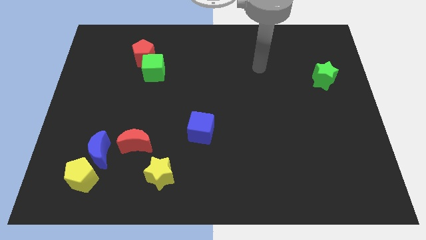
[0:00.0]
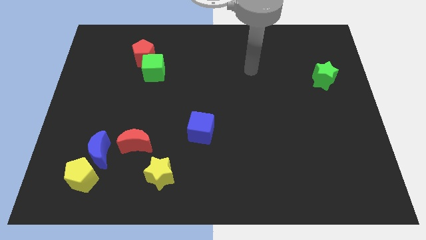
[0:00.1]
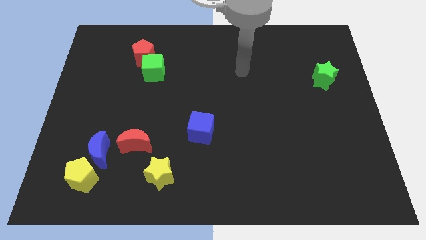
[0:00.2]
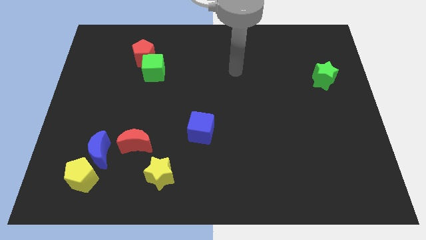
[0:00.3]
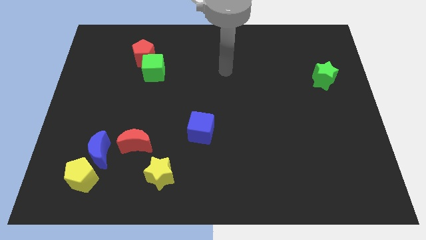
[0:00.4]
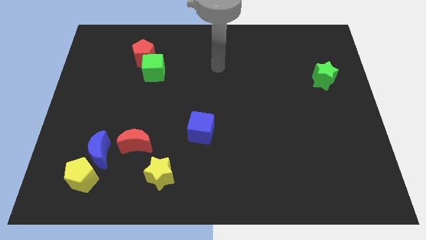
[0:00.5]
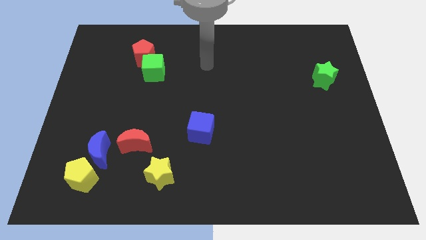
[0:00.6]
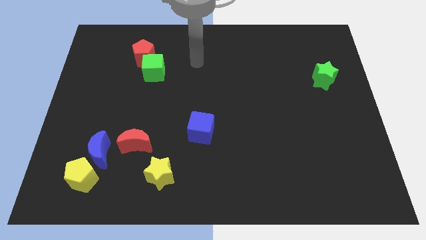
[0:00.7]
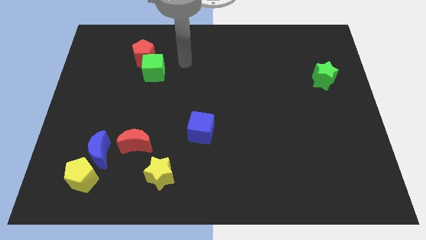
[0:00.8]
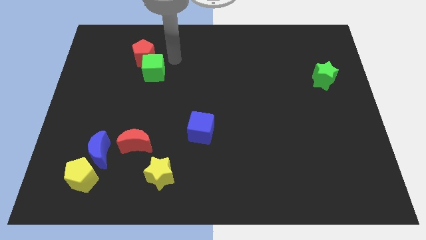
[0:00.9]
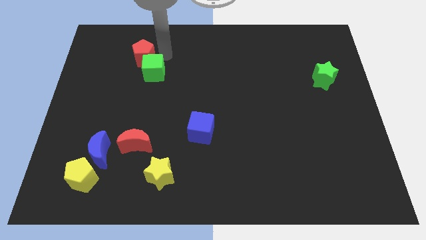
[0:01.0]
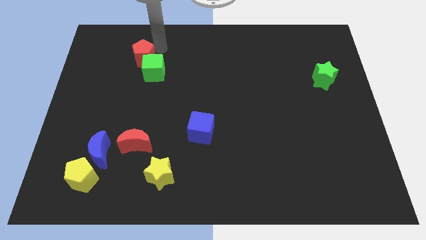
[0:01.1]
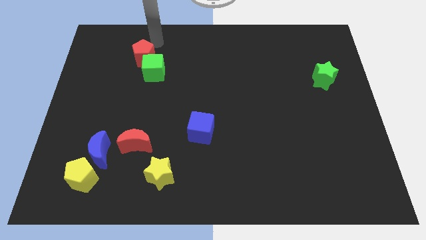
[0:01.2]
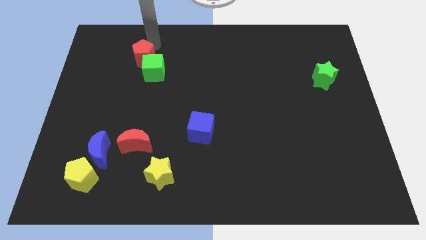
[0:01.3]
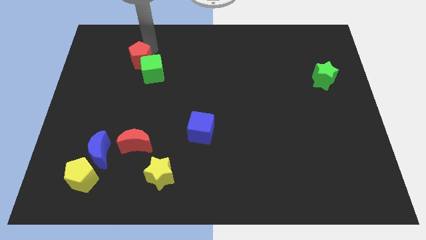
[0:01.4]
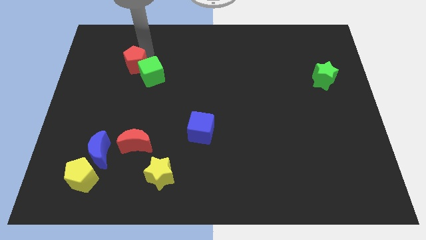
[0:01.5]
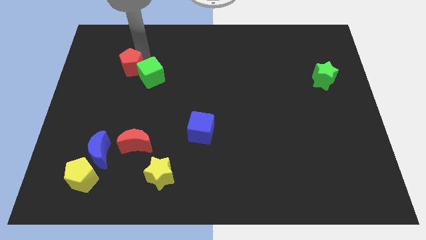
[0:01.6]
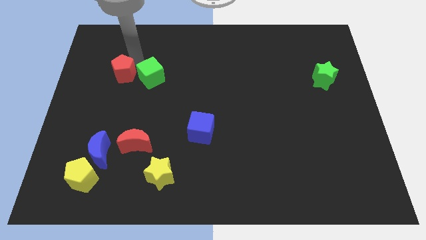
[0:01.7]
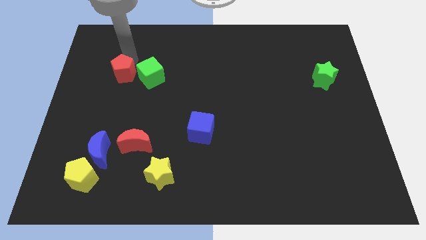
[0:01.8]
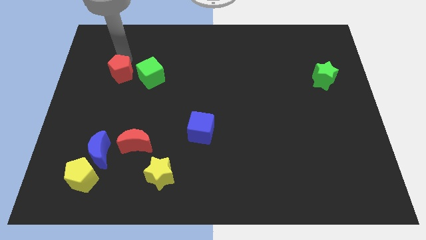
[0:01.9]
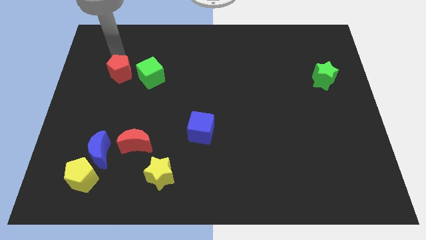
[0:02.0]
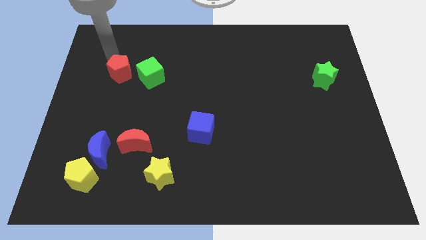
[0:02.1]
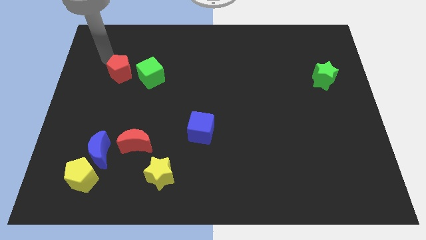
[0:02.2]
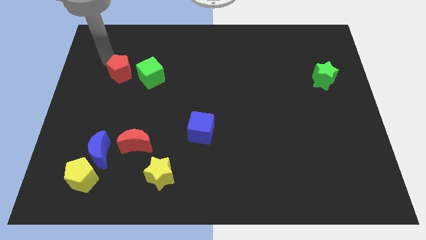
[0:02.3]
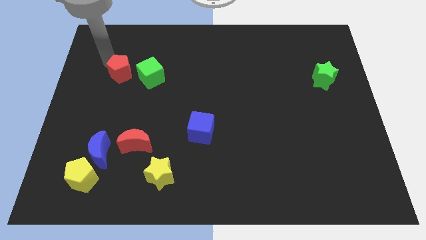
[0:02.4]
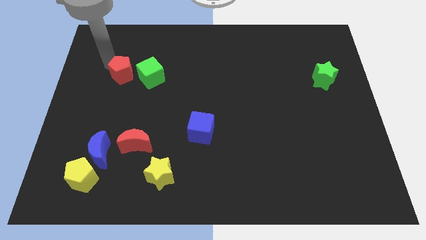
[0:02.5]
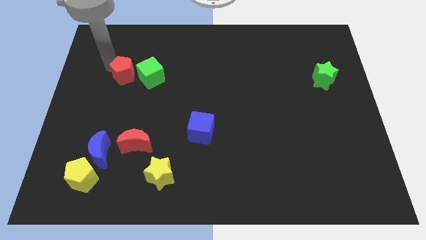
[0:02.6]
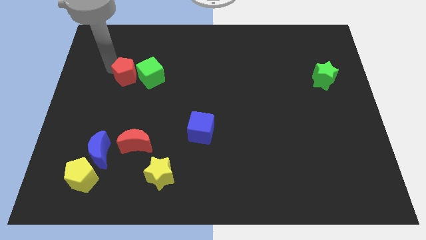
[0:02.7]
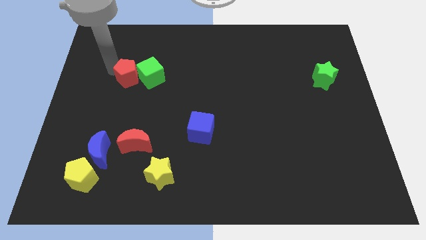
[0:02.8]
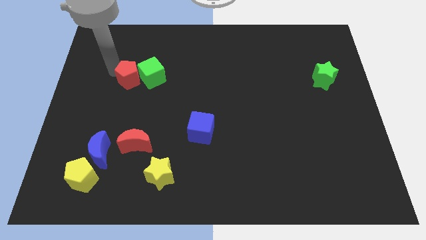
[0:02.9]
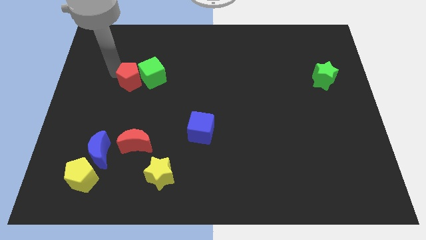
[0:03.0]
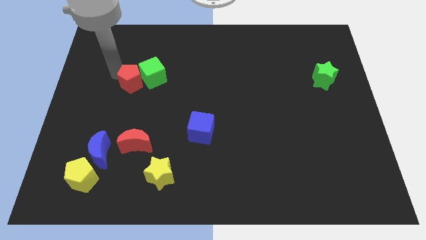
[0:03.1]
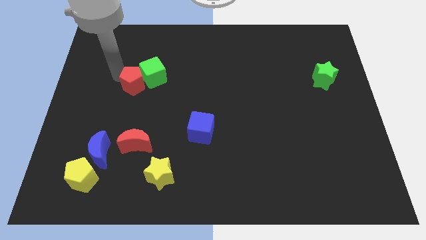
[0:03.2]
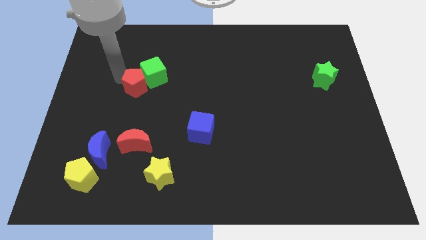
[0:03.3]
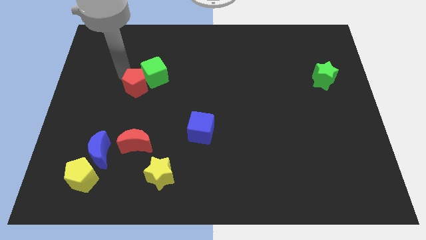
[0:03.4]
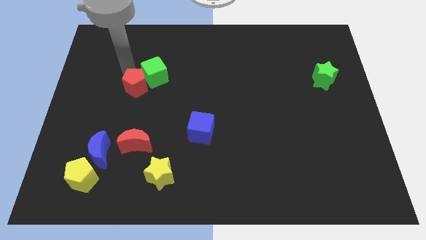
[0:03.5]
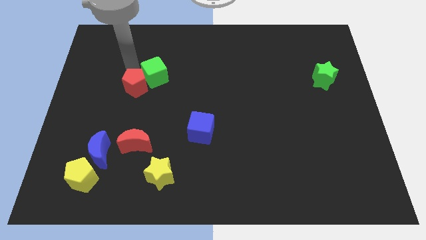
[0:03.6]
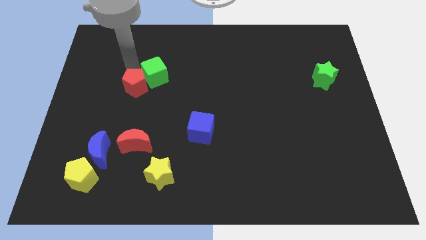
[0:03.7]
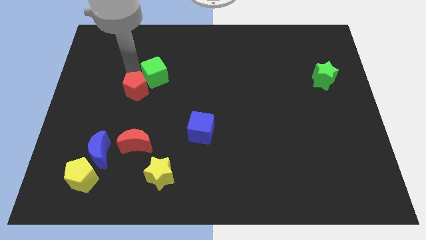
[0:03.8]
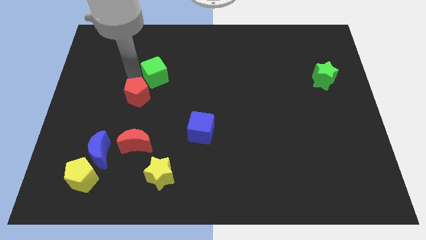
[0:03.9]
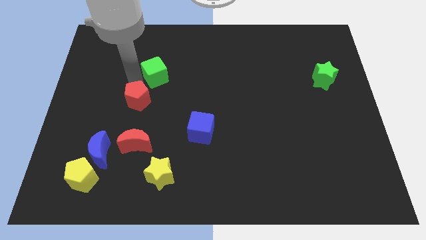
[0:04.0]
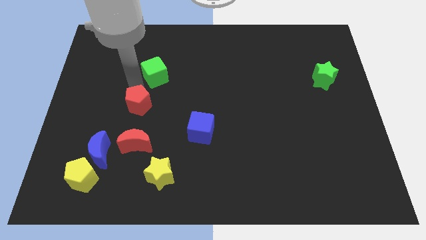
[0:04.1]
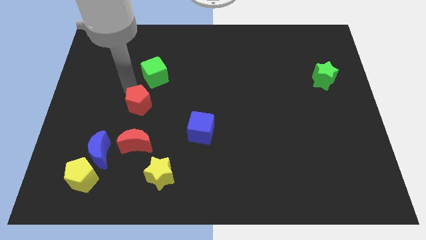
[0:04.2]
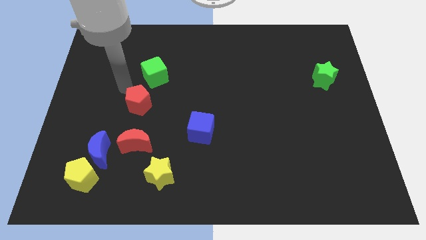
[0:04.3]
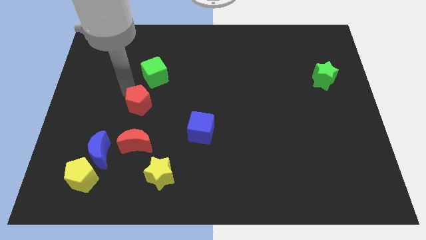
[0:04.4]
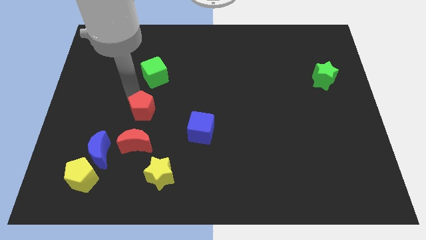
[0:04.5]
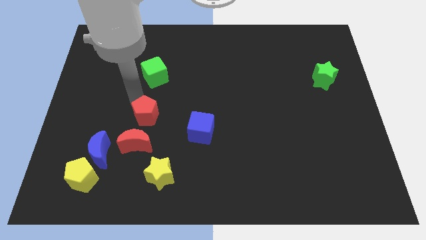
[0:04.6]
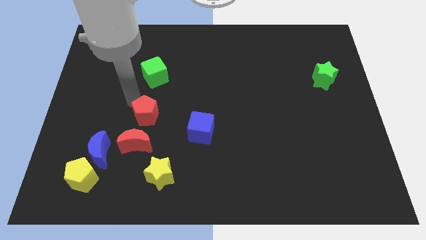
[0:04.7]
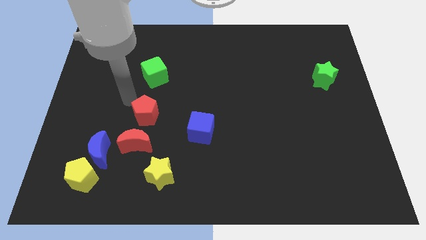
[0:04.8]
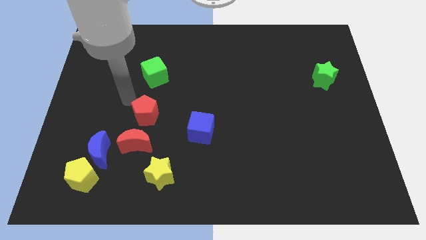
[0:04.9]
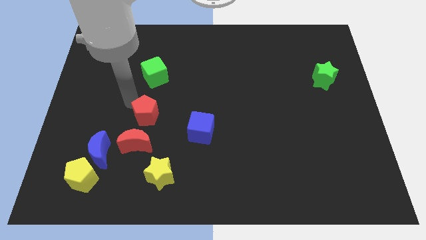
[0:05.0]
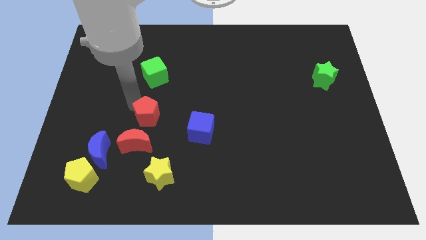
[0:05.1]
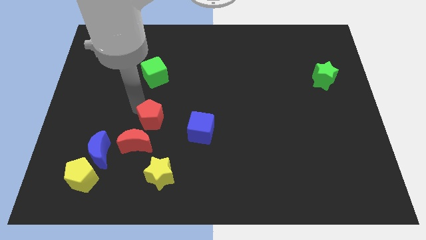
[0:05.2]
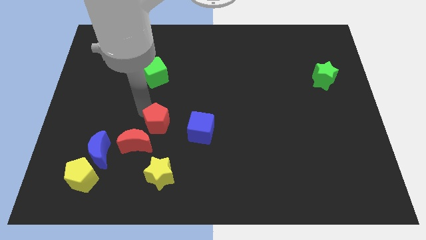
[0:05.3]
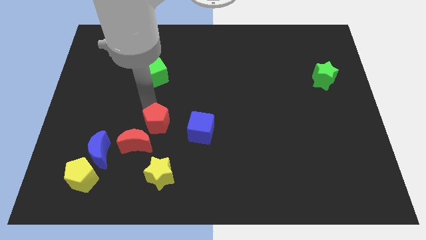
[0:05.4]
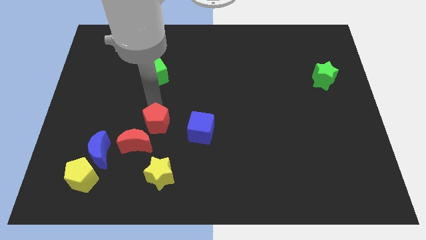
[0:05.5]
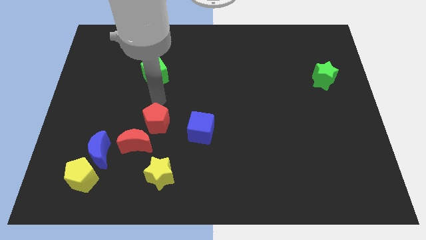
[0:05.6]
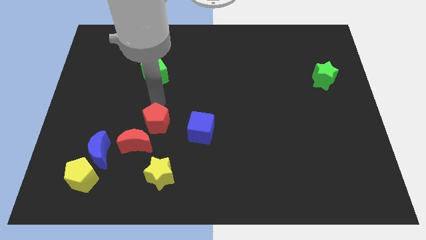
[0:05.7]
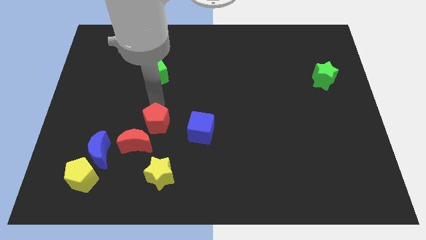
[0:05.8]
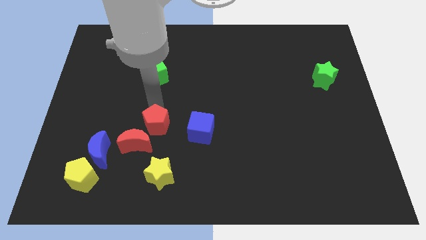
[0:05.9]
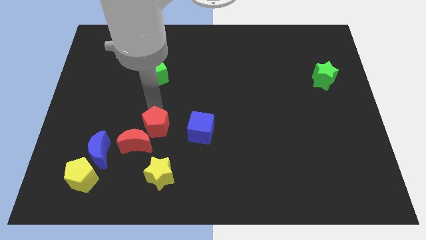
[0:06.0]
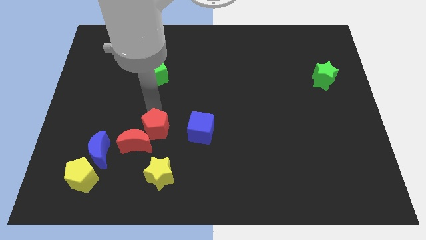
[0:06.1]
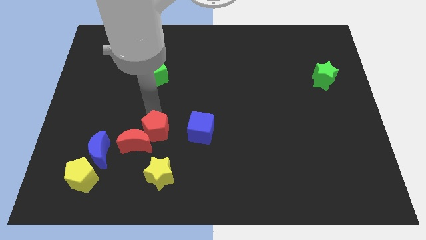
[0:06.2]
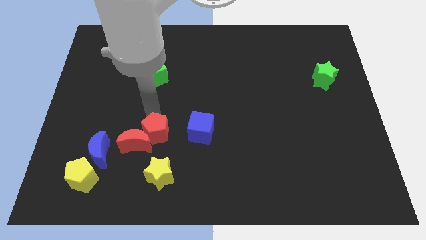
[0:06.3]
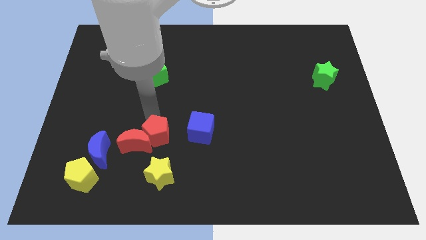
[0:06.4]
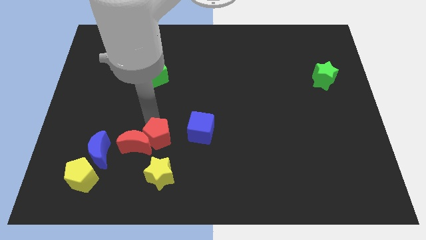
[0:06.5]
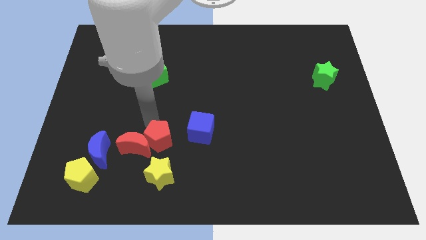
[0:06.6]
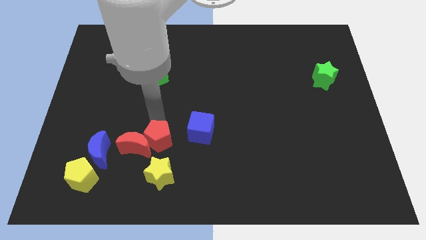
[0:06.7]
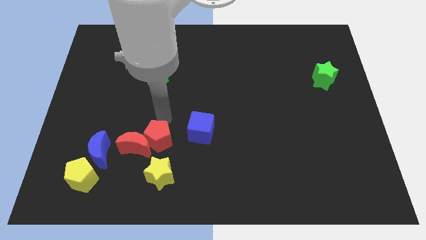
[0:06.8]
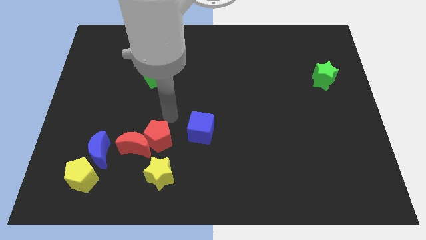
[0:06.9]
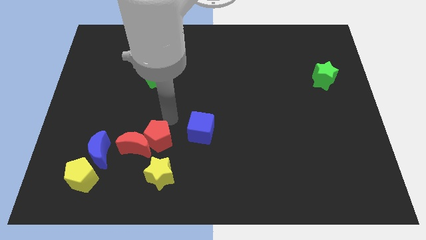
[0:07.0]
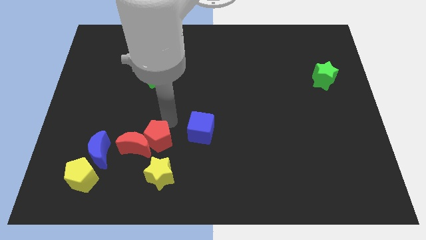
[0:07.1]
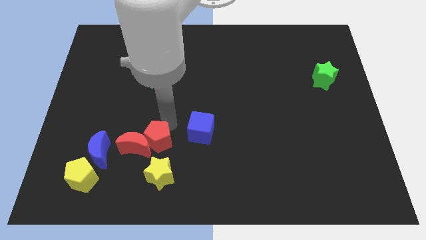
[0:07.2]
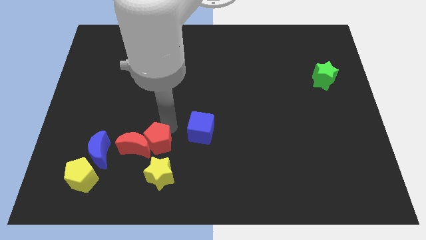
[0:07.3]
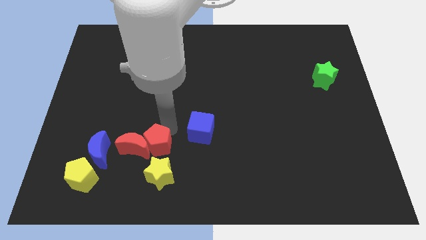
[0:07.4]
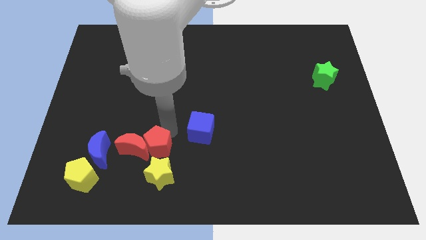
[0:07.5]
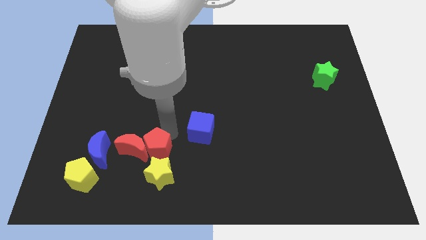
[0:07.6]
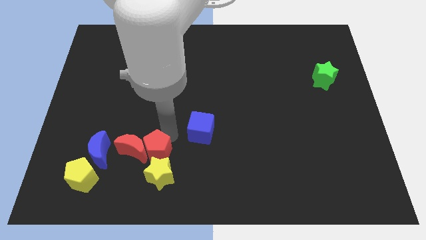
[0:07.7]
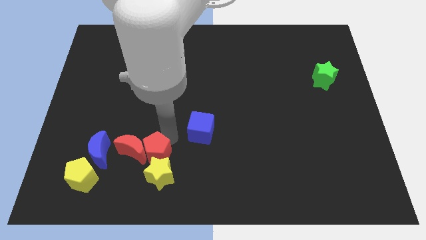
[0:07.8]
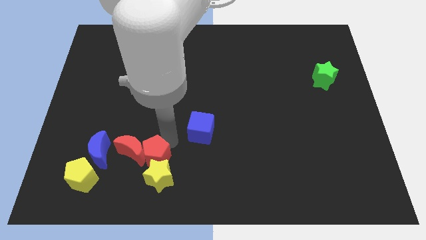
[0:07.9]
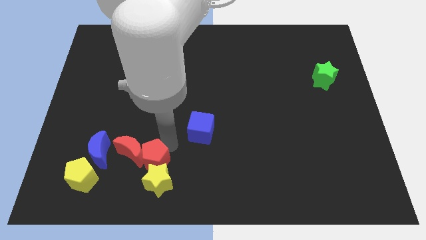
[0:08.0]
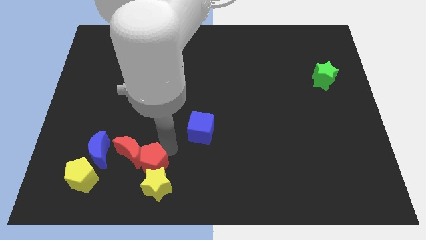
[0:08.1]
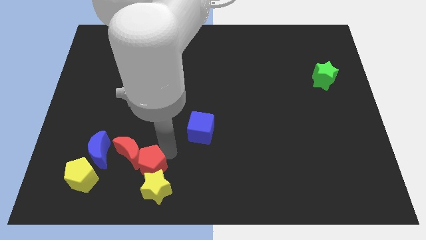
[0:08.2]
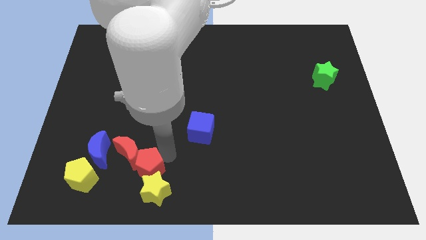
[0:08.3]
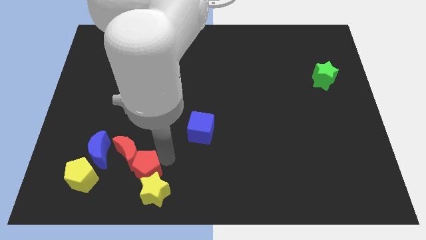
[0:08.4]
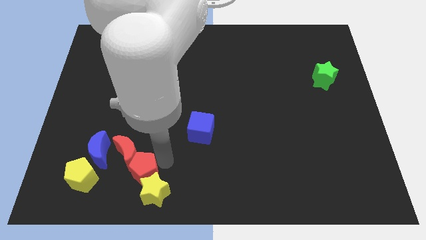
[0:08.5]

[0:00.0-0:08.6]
push the red pentagon to the bottom right of the blue moon
